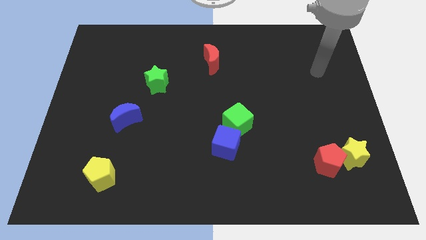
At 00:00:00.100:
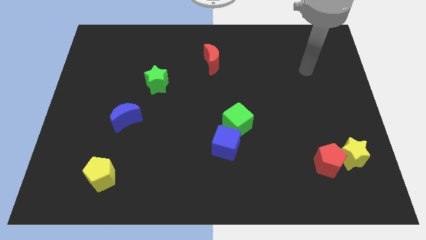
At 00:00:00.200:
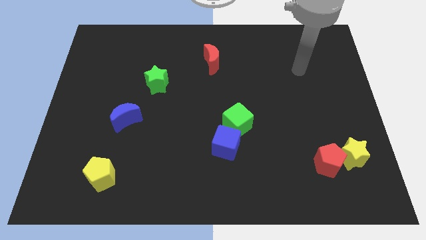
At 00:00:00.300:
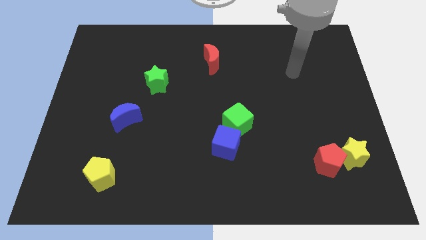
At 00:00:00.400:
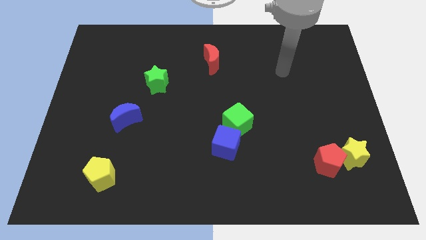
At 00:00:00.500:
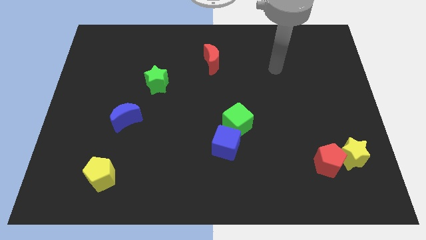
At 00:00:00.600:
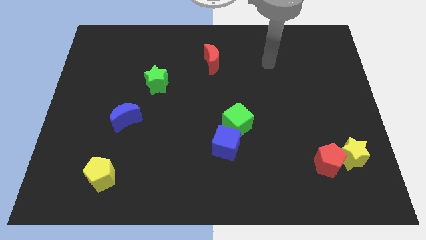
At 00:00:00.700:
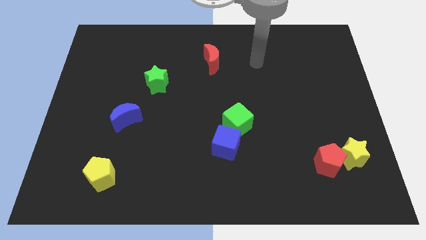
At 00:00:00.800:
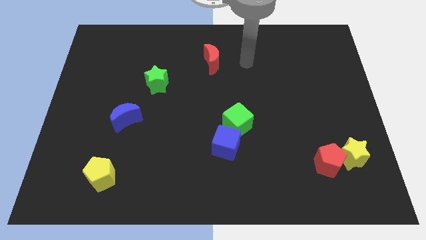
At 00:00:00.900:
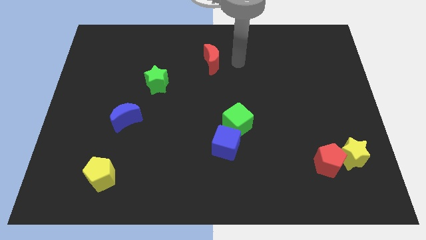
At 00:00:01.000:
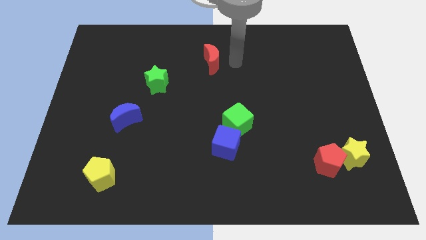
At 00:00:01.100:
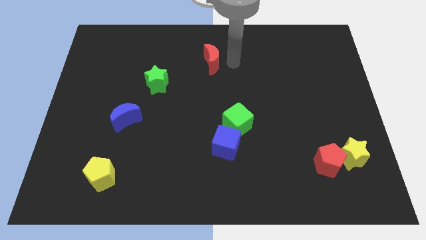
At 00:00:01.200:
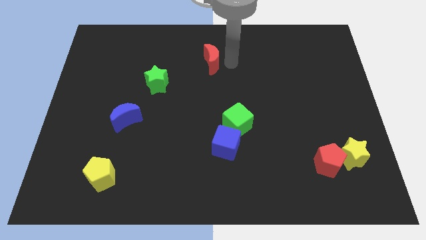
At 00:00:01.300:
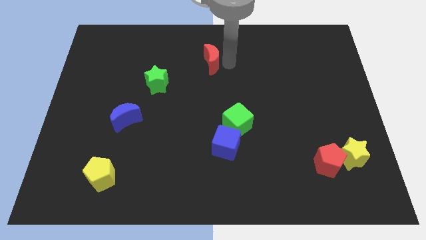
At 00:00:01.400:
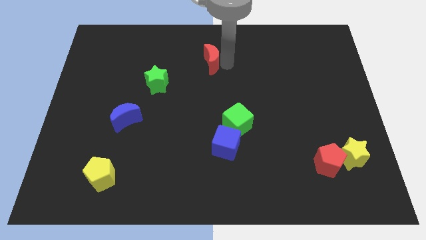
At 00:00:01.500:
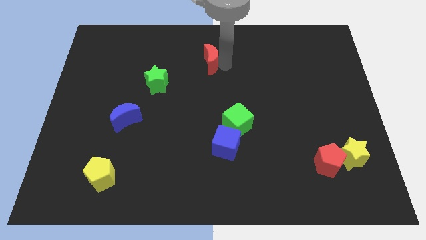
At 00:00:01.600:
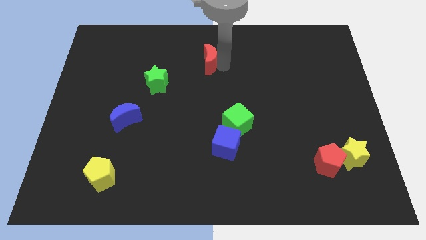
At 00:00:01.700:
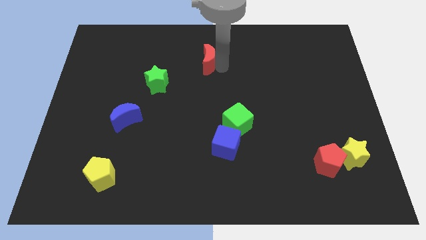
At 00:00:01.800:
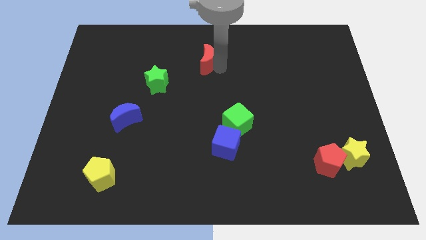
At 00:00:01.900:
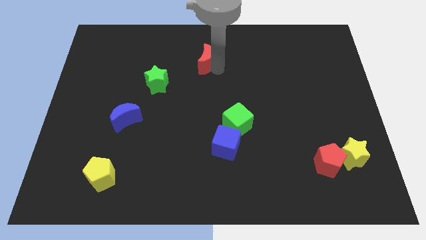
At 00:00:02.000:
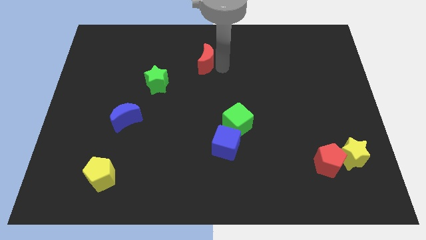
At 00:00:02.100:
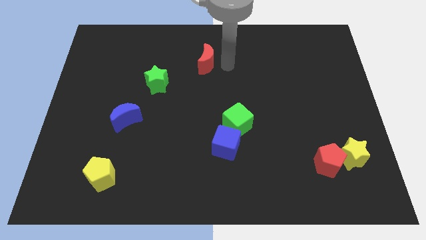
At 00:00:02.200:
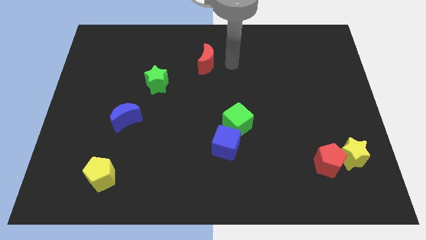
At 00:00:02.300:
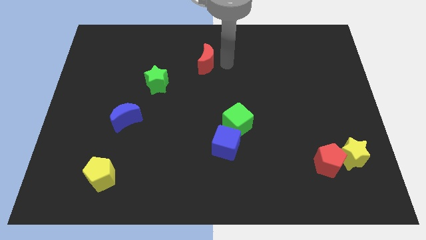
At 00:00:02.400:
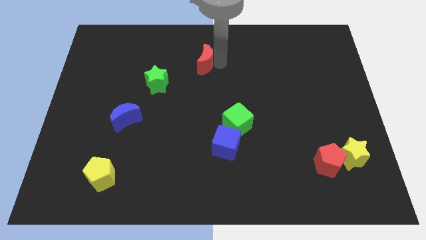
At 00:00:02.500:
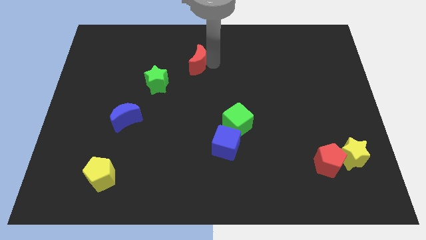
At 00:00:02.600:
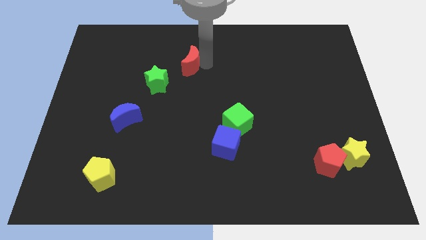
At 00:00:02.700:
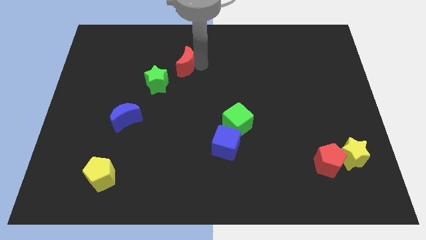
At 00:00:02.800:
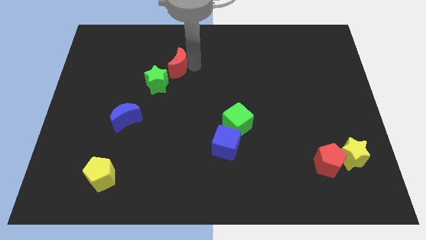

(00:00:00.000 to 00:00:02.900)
slide the red moon a little bit left

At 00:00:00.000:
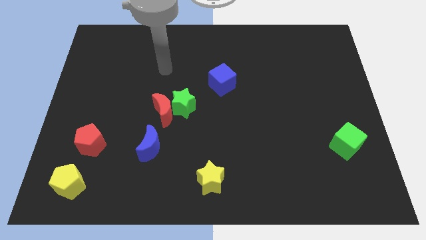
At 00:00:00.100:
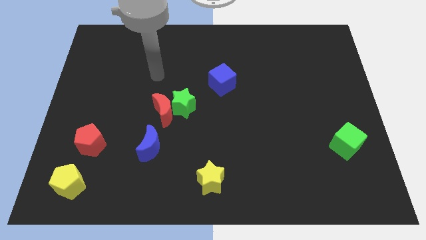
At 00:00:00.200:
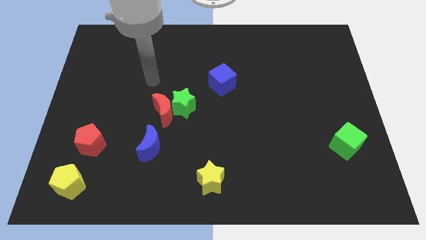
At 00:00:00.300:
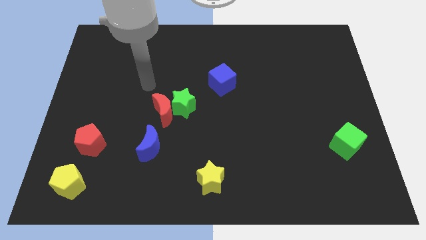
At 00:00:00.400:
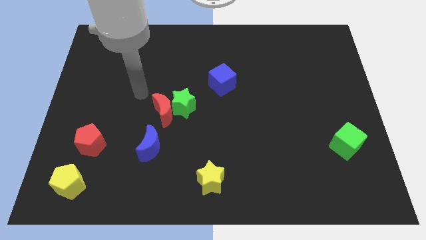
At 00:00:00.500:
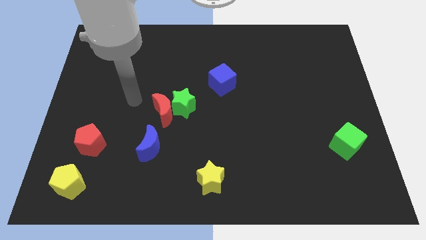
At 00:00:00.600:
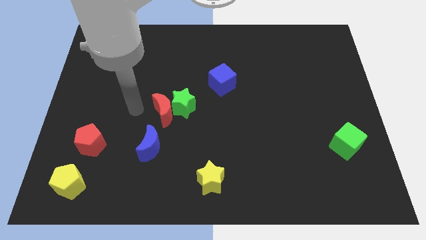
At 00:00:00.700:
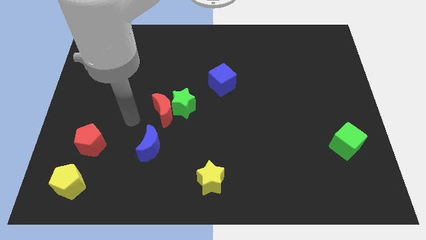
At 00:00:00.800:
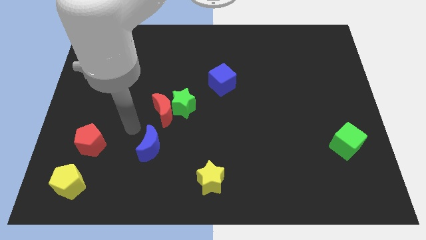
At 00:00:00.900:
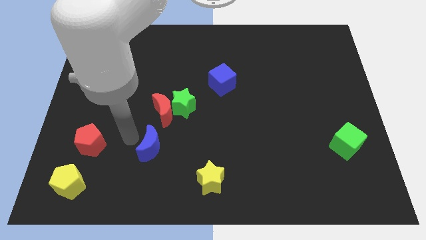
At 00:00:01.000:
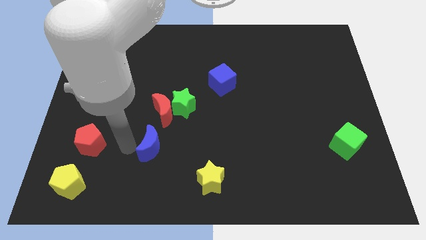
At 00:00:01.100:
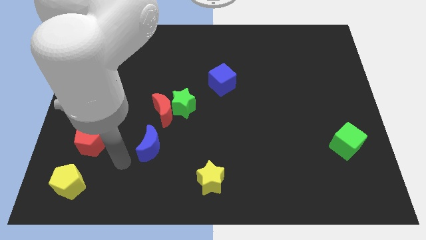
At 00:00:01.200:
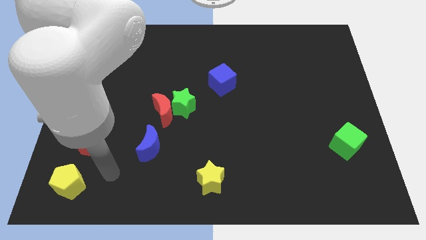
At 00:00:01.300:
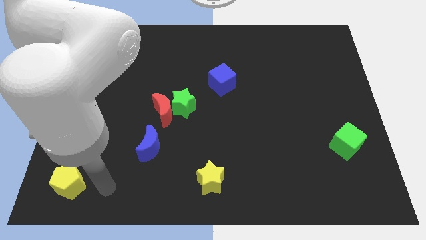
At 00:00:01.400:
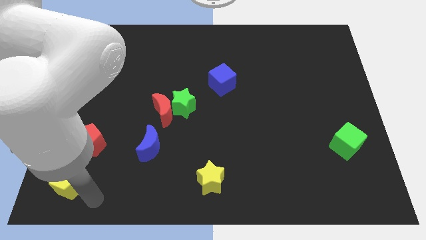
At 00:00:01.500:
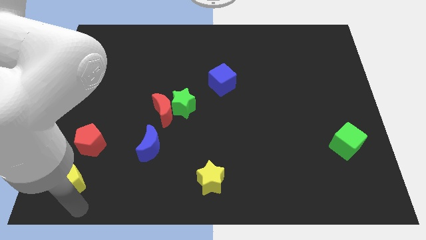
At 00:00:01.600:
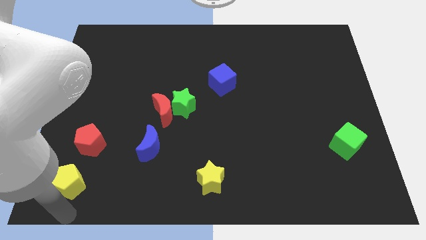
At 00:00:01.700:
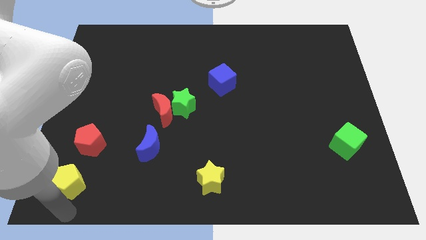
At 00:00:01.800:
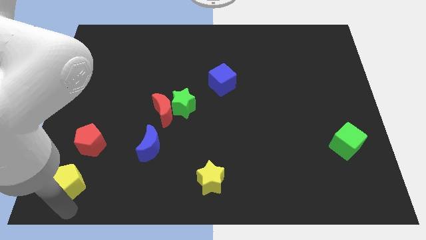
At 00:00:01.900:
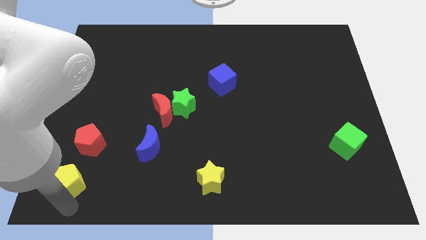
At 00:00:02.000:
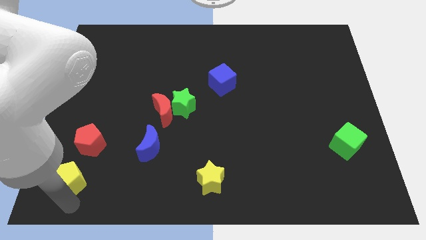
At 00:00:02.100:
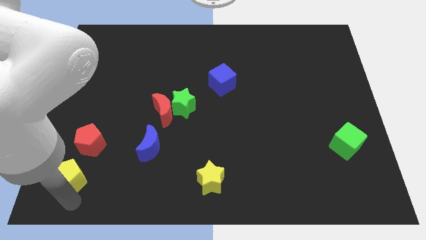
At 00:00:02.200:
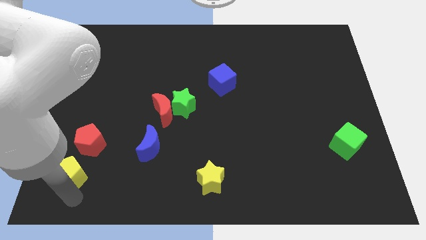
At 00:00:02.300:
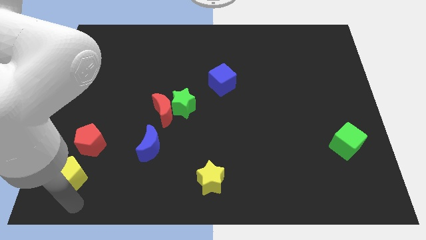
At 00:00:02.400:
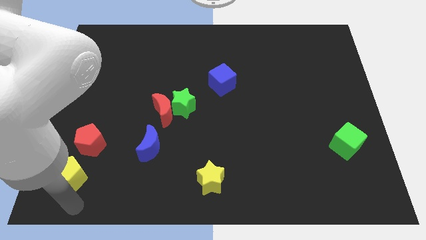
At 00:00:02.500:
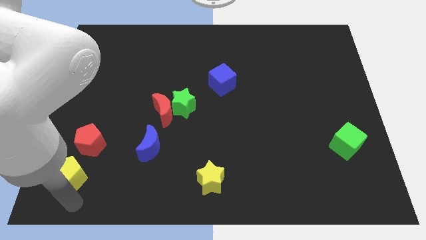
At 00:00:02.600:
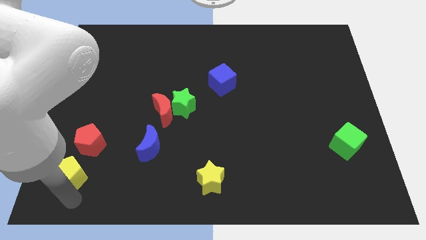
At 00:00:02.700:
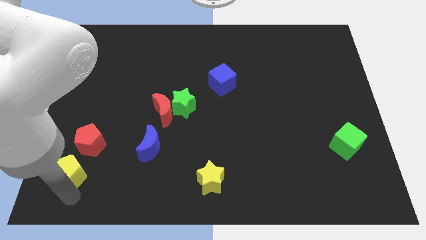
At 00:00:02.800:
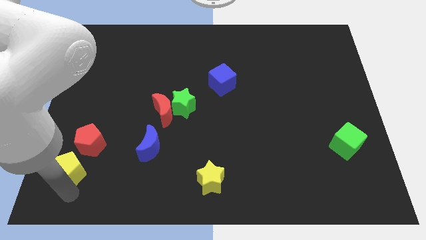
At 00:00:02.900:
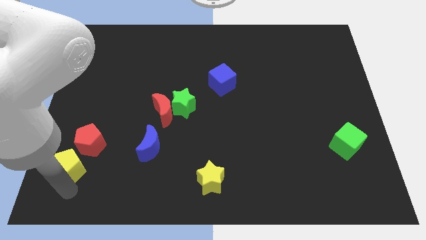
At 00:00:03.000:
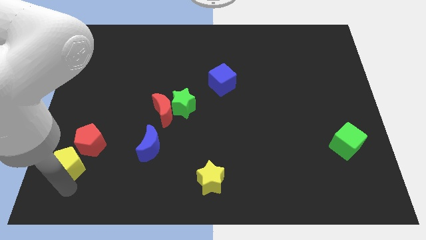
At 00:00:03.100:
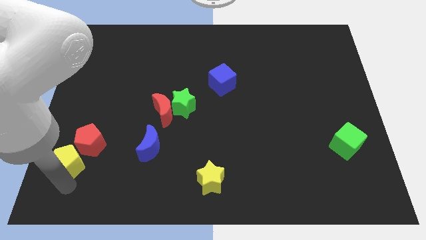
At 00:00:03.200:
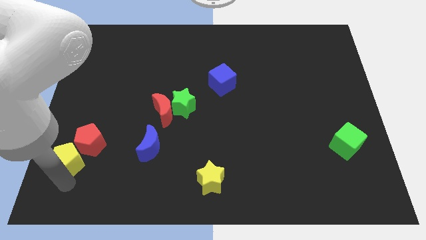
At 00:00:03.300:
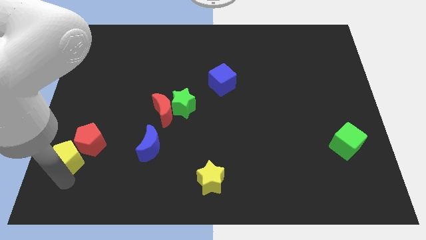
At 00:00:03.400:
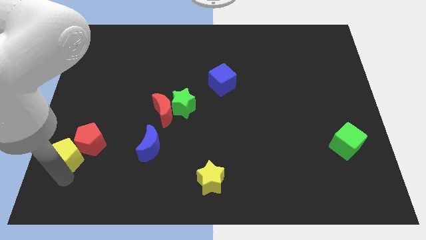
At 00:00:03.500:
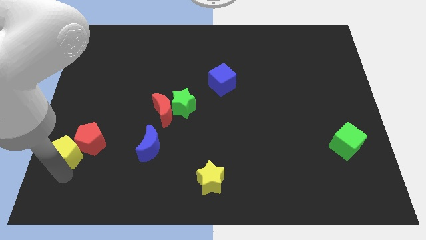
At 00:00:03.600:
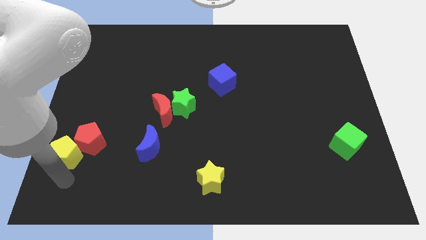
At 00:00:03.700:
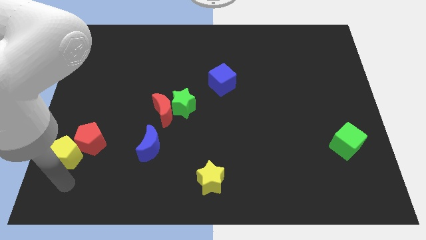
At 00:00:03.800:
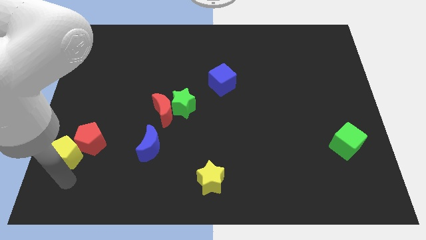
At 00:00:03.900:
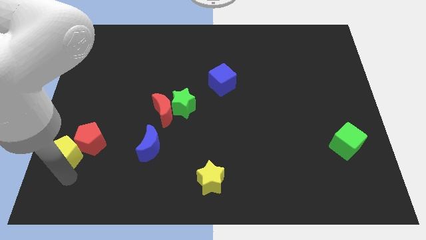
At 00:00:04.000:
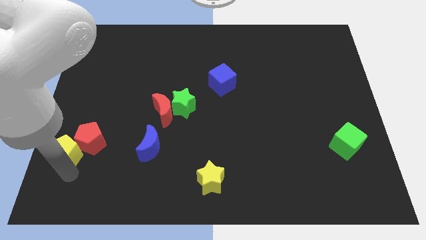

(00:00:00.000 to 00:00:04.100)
slightly slide the yellow pentagon upwards
